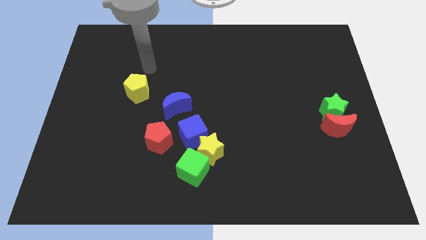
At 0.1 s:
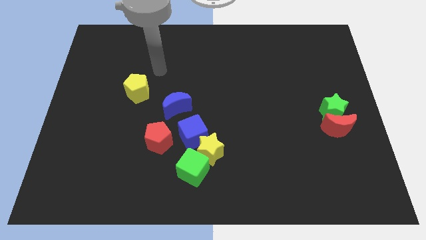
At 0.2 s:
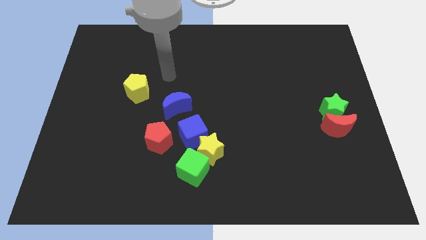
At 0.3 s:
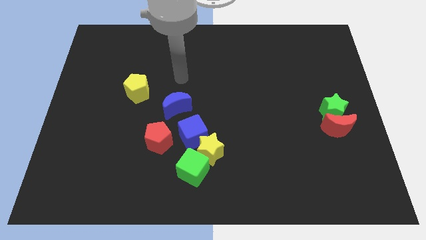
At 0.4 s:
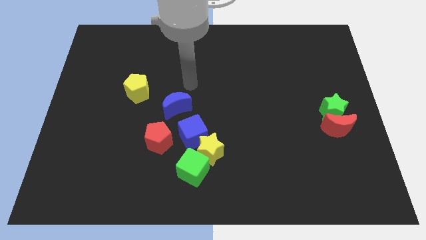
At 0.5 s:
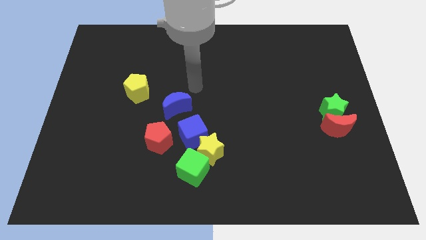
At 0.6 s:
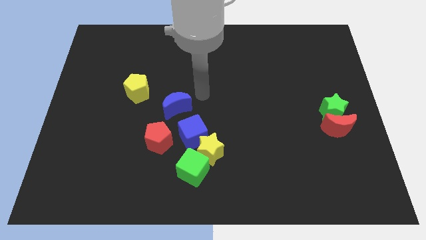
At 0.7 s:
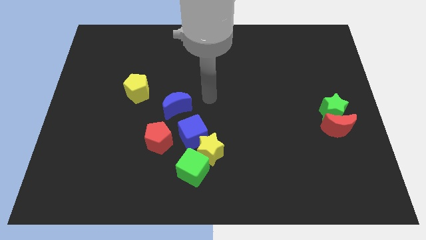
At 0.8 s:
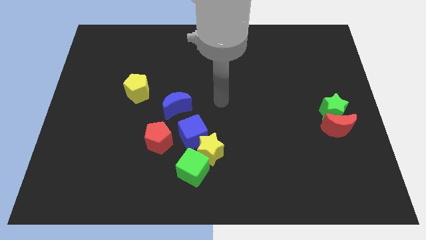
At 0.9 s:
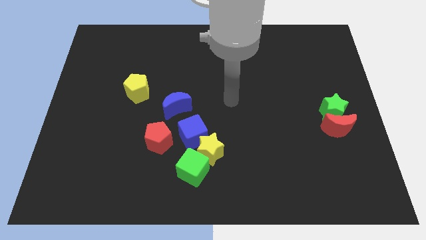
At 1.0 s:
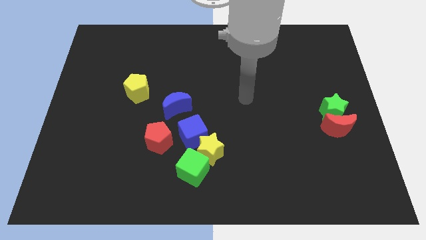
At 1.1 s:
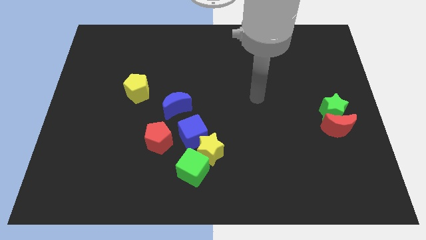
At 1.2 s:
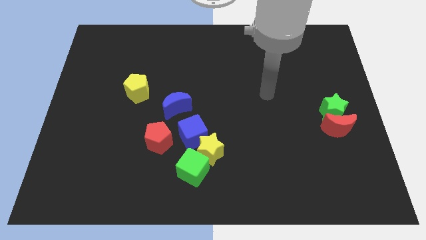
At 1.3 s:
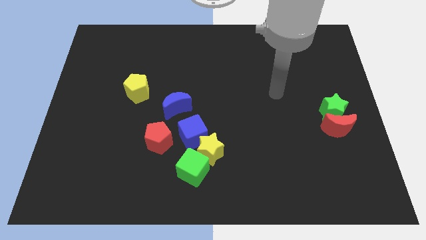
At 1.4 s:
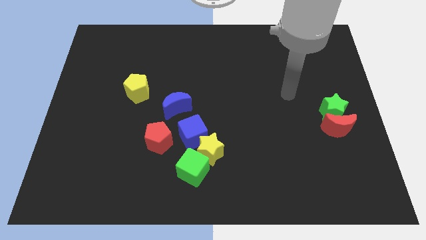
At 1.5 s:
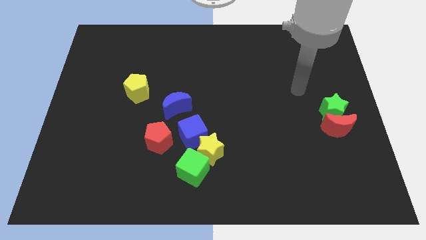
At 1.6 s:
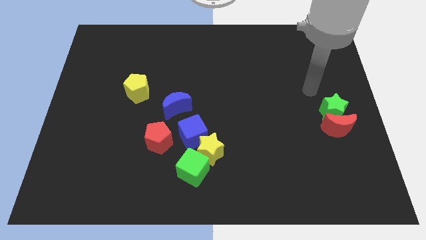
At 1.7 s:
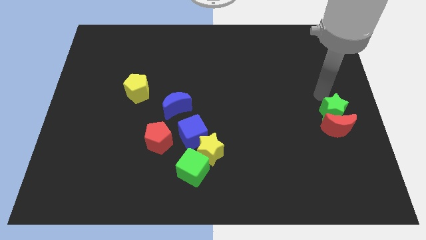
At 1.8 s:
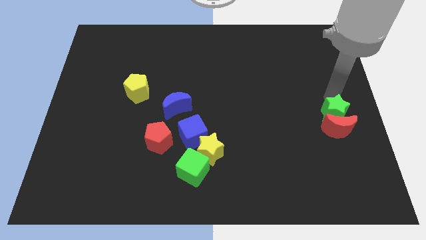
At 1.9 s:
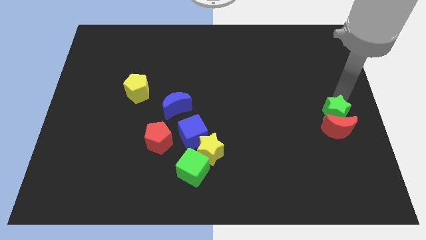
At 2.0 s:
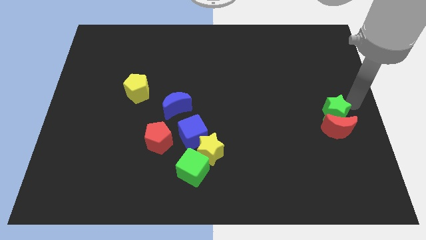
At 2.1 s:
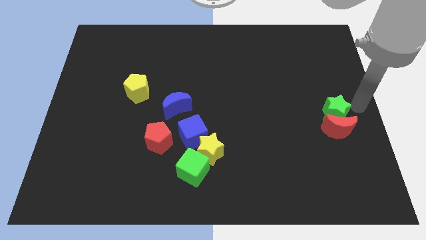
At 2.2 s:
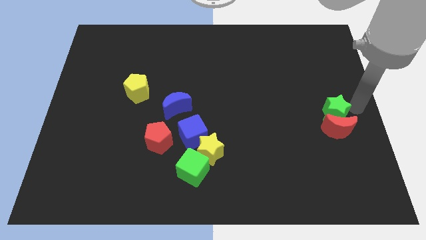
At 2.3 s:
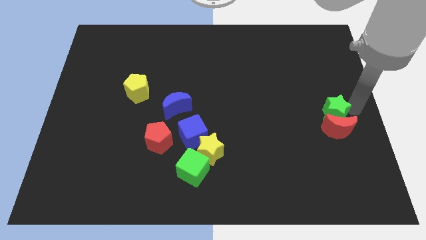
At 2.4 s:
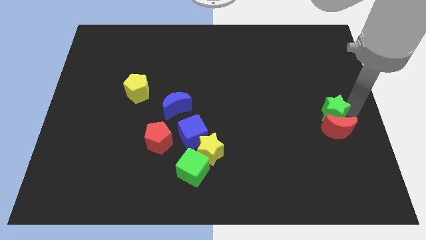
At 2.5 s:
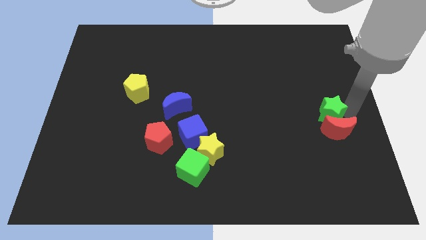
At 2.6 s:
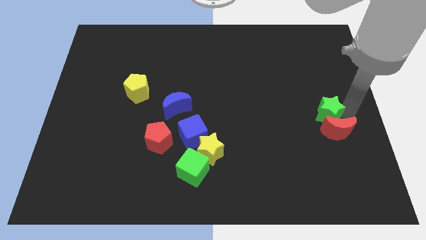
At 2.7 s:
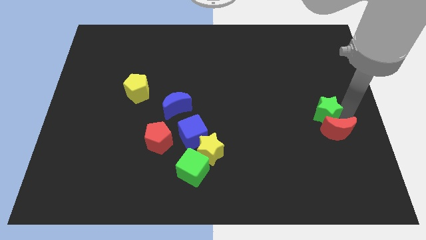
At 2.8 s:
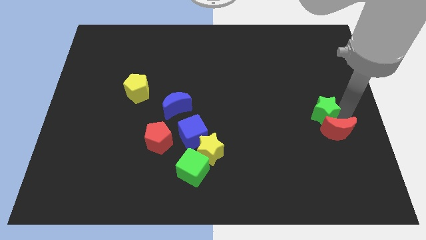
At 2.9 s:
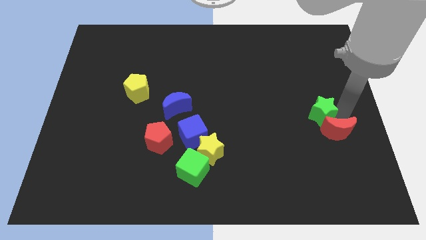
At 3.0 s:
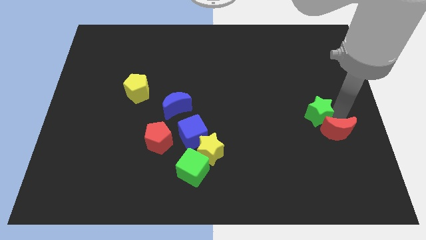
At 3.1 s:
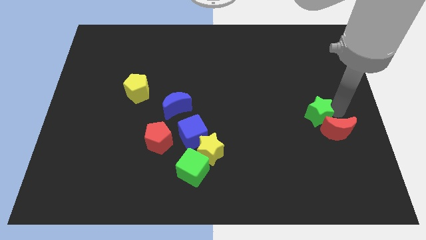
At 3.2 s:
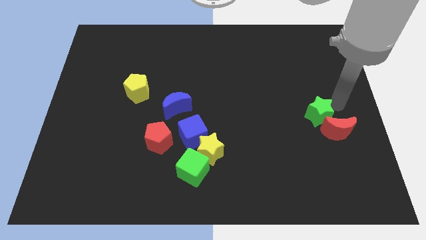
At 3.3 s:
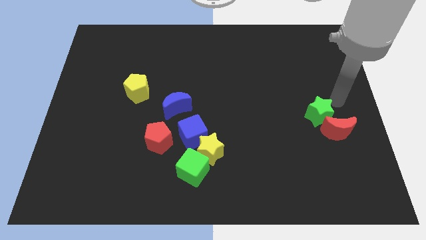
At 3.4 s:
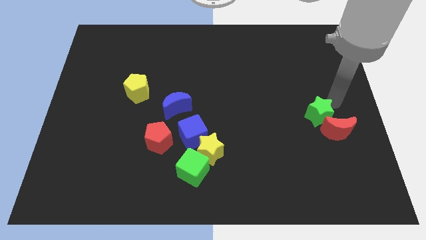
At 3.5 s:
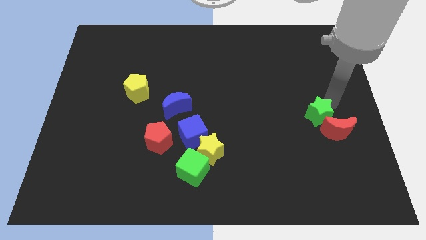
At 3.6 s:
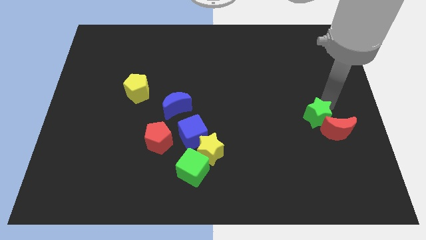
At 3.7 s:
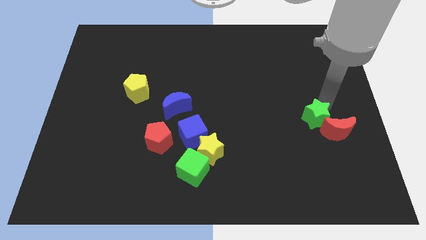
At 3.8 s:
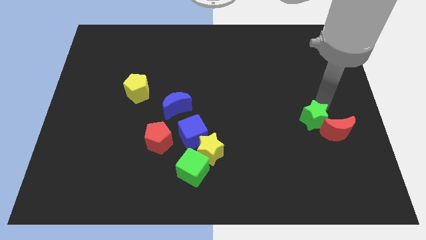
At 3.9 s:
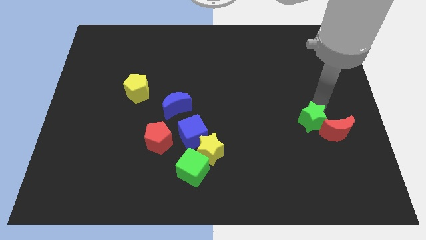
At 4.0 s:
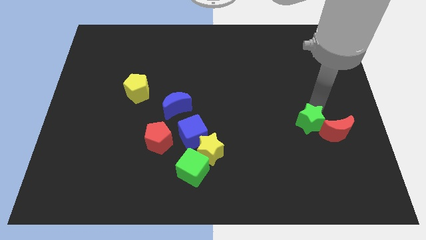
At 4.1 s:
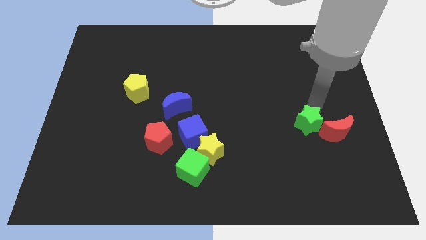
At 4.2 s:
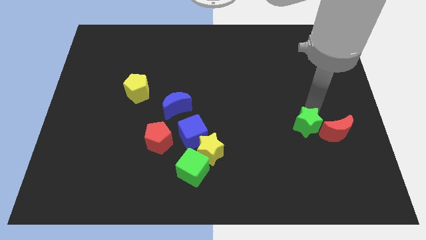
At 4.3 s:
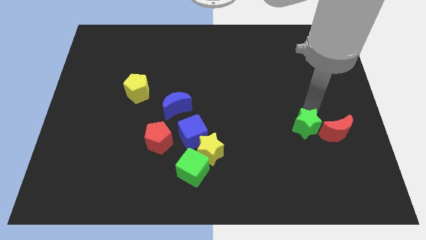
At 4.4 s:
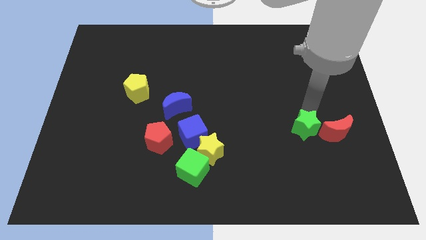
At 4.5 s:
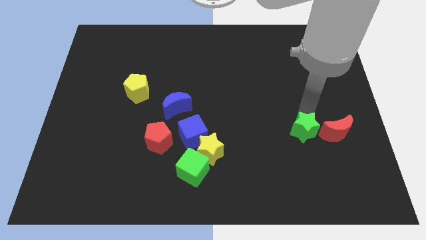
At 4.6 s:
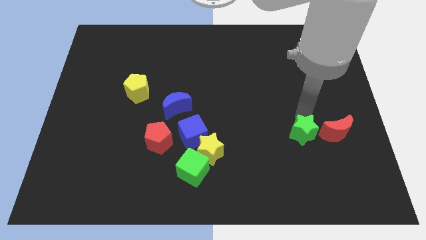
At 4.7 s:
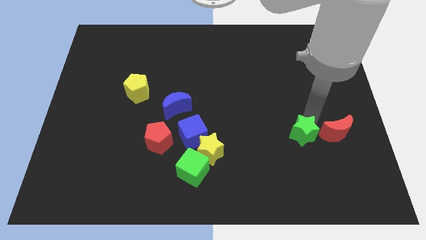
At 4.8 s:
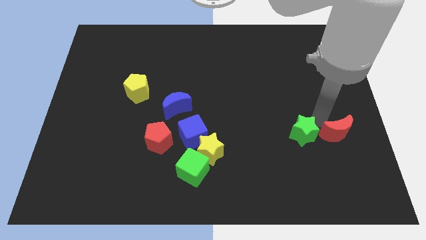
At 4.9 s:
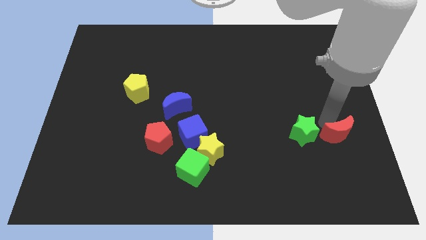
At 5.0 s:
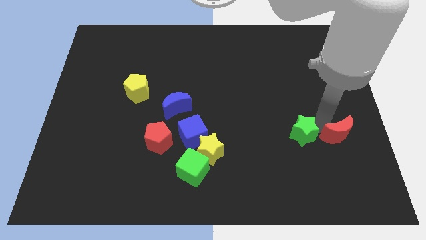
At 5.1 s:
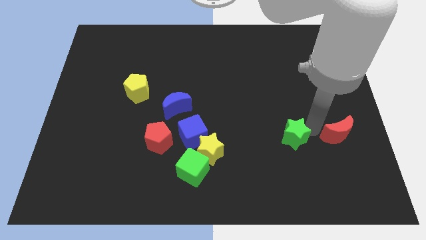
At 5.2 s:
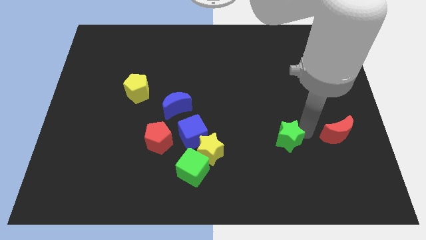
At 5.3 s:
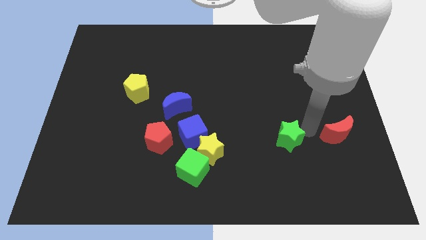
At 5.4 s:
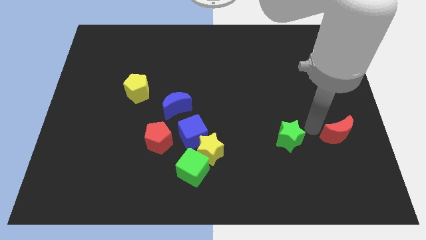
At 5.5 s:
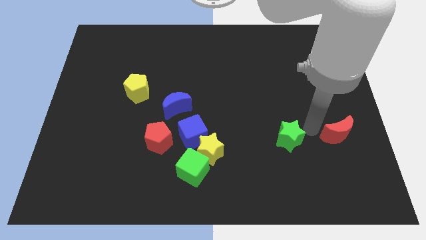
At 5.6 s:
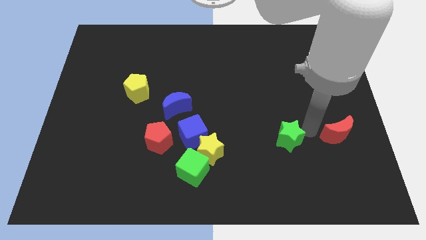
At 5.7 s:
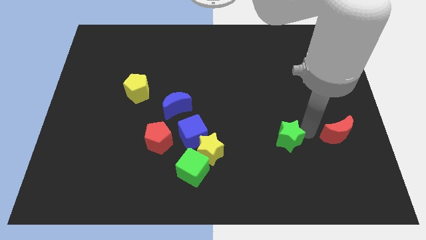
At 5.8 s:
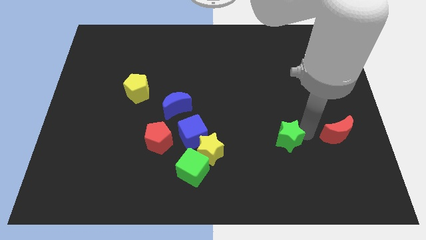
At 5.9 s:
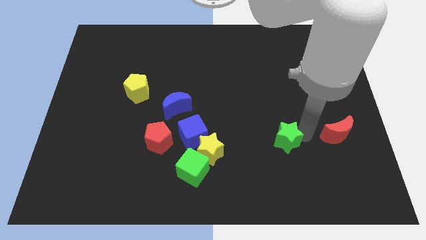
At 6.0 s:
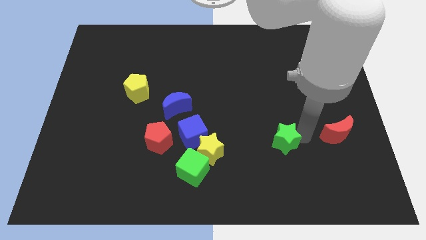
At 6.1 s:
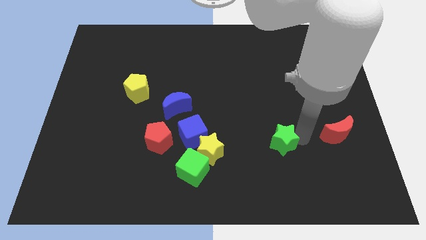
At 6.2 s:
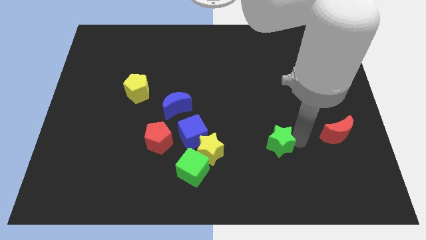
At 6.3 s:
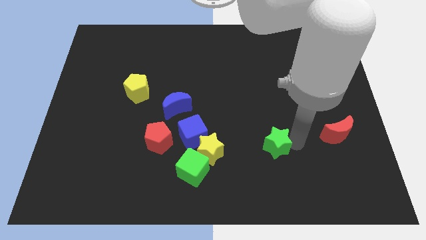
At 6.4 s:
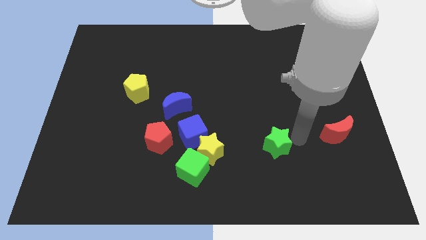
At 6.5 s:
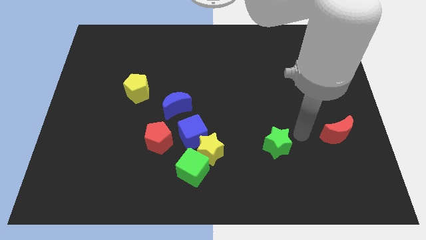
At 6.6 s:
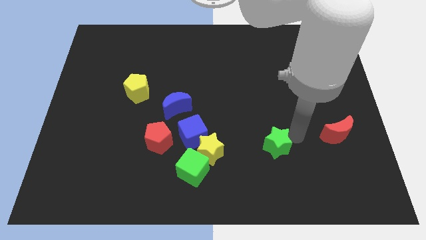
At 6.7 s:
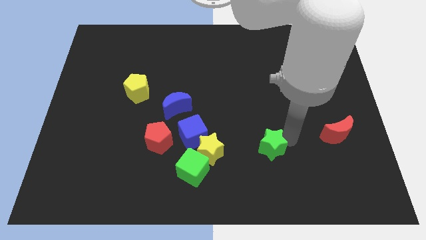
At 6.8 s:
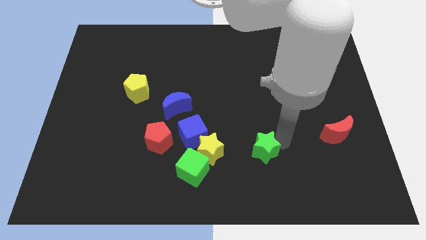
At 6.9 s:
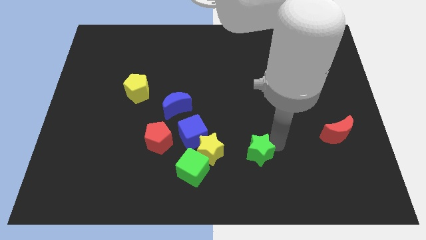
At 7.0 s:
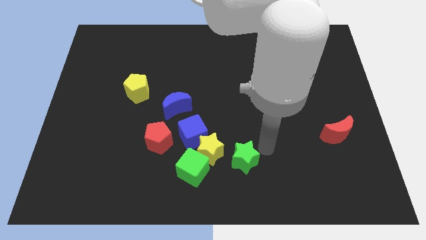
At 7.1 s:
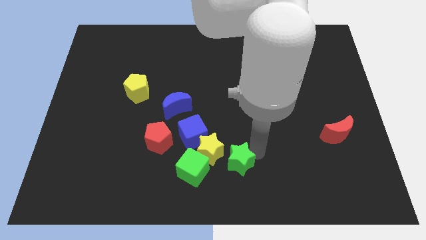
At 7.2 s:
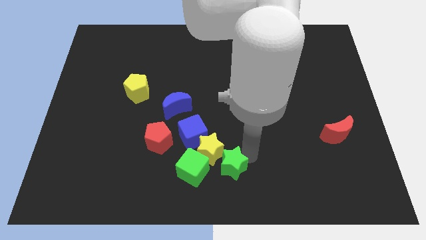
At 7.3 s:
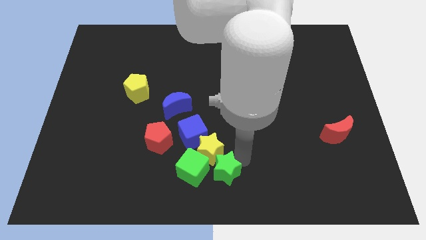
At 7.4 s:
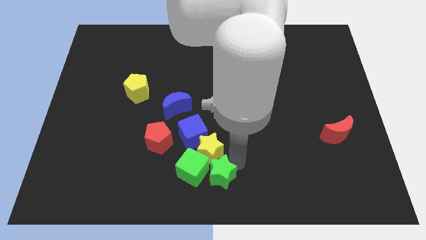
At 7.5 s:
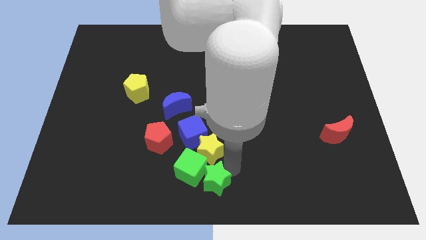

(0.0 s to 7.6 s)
slide the green star to the bottom of the blue cube
